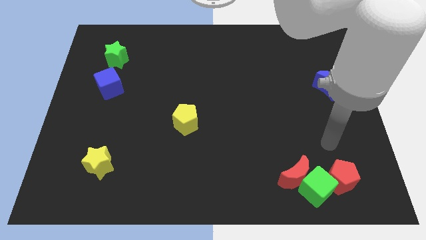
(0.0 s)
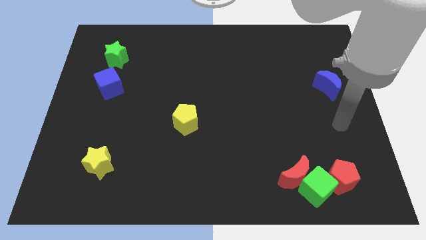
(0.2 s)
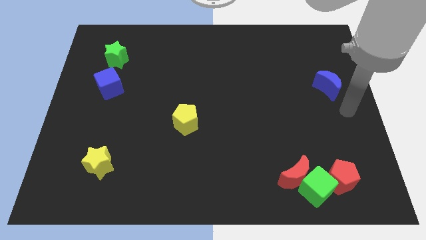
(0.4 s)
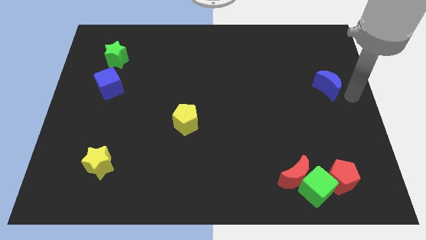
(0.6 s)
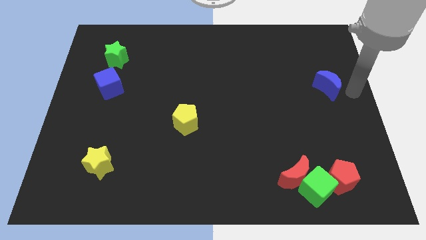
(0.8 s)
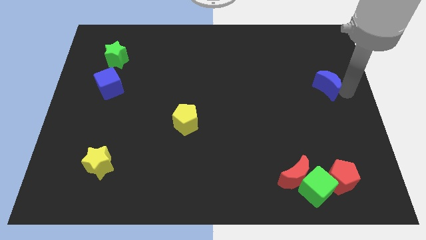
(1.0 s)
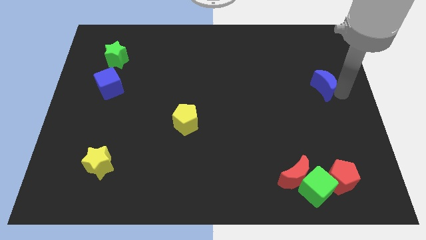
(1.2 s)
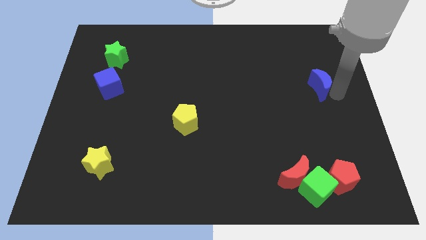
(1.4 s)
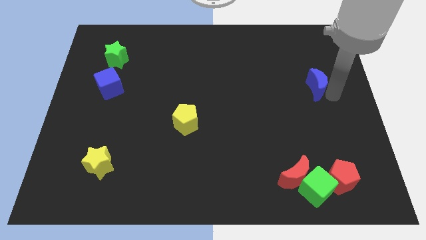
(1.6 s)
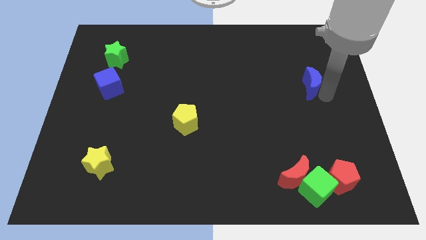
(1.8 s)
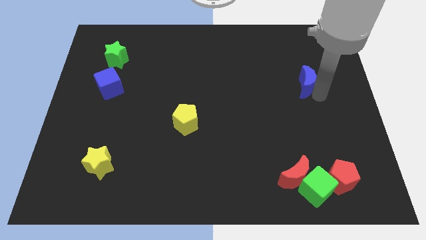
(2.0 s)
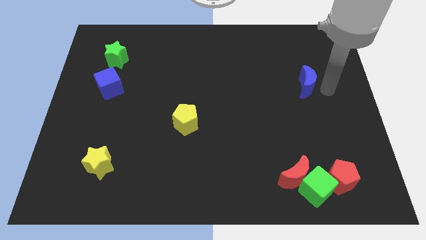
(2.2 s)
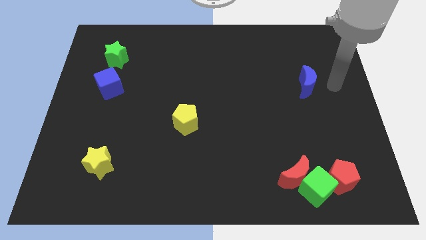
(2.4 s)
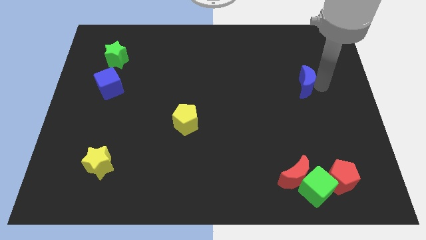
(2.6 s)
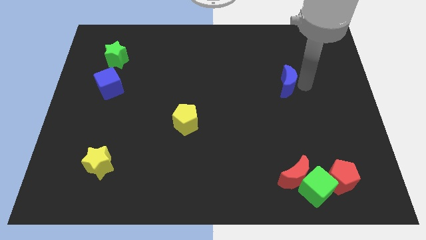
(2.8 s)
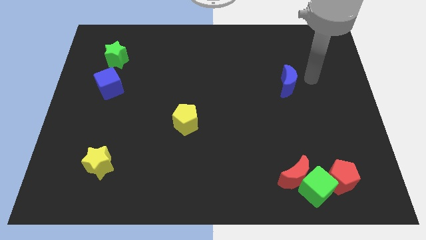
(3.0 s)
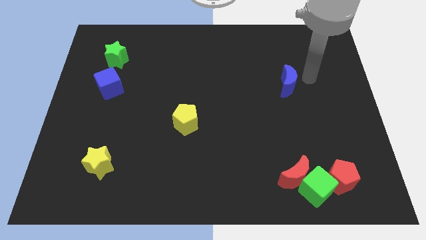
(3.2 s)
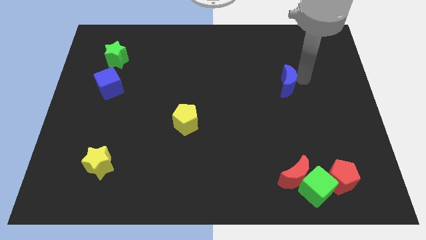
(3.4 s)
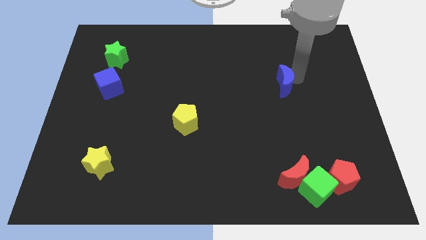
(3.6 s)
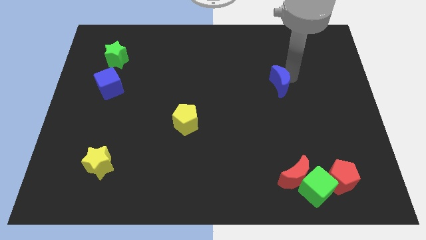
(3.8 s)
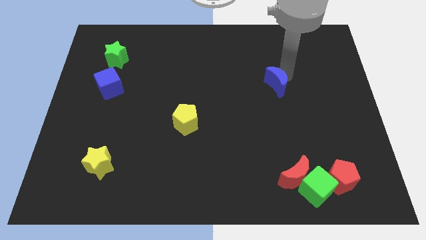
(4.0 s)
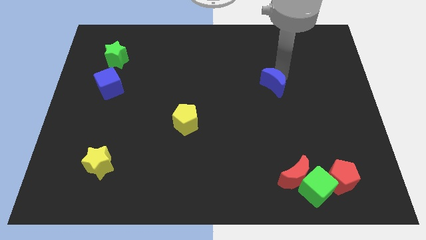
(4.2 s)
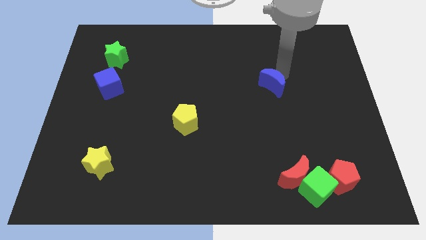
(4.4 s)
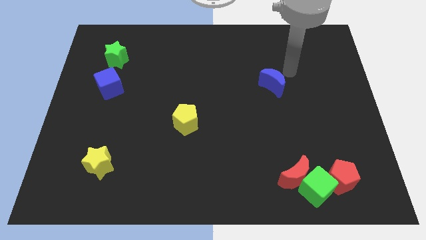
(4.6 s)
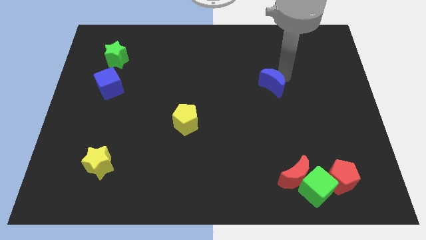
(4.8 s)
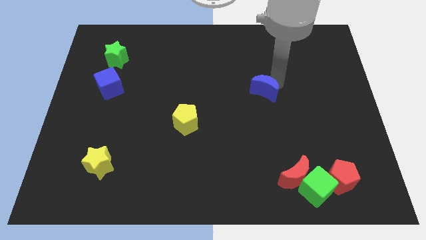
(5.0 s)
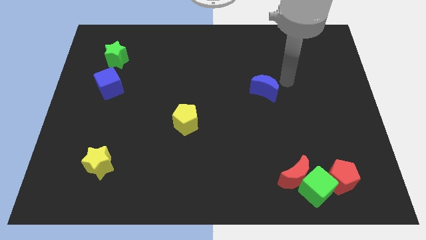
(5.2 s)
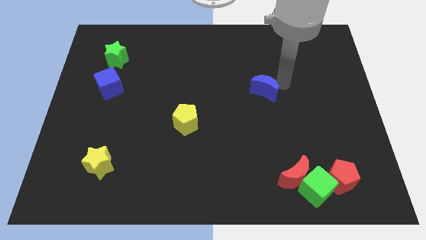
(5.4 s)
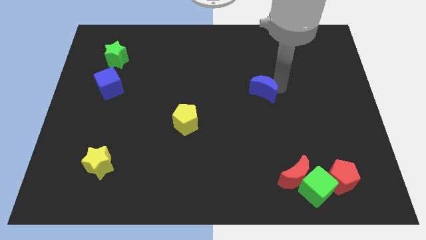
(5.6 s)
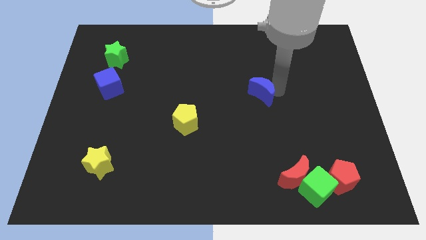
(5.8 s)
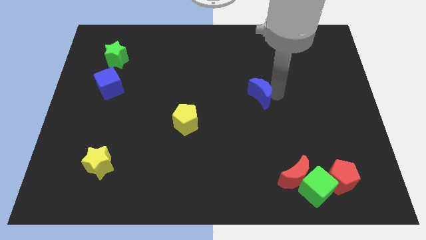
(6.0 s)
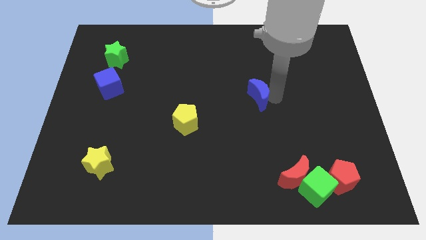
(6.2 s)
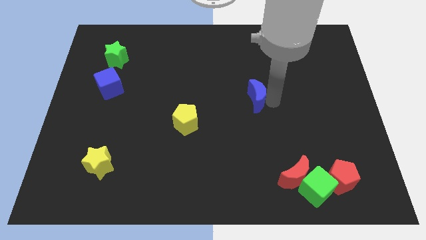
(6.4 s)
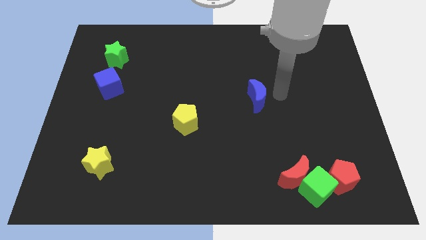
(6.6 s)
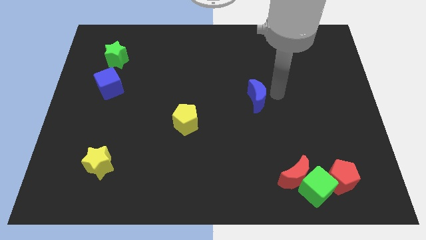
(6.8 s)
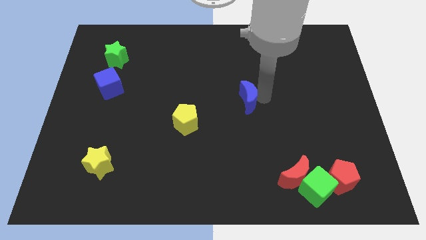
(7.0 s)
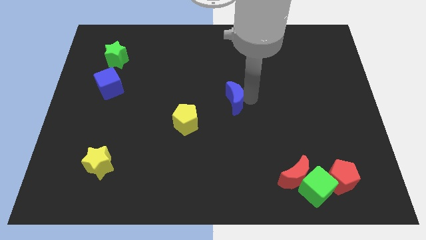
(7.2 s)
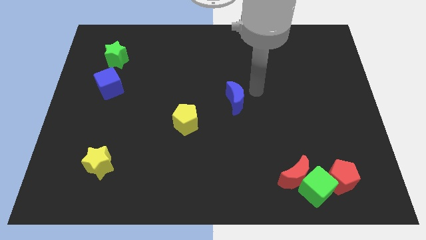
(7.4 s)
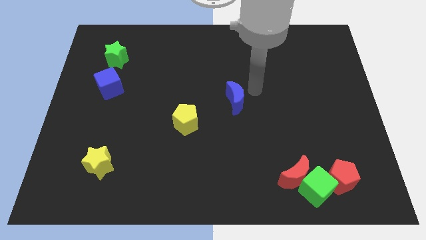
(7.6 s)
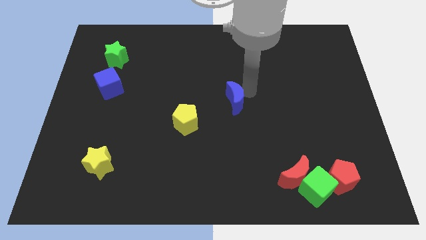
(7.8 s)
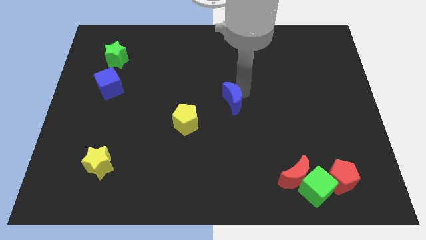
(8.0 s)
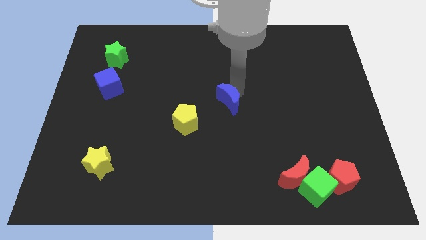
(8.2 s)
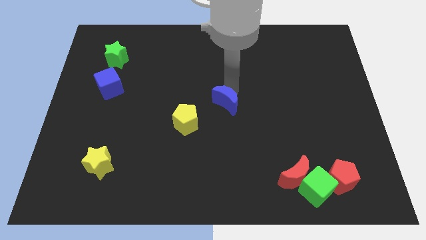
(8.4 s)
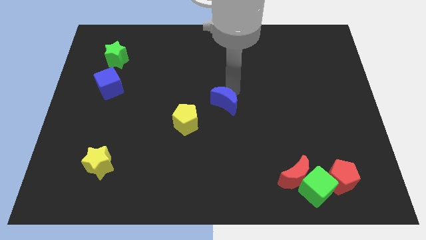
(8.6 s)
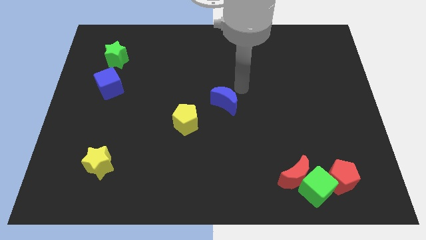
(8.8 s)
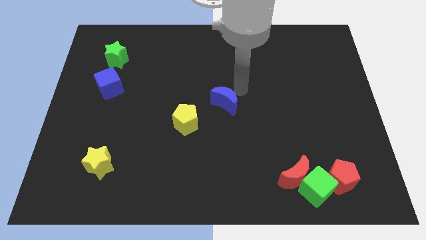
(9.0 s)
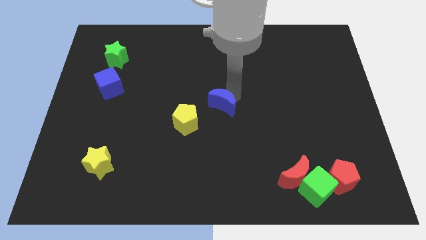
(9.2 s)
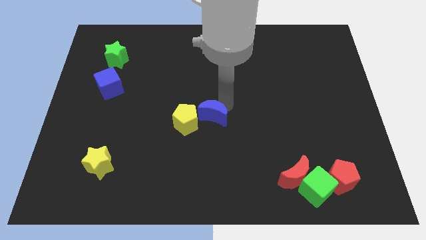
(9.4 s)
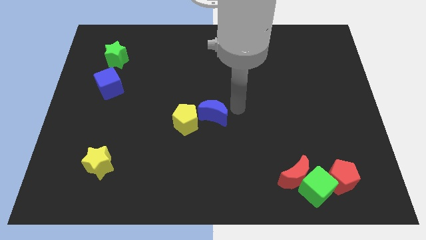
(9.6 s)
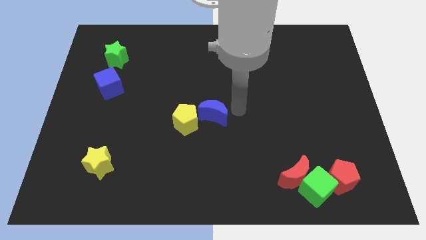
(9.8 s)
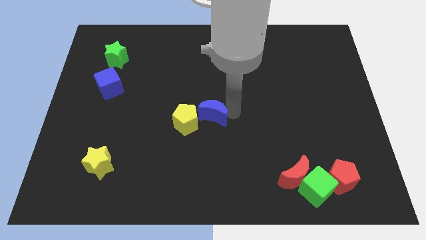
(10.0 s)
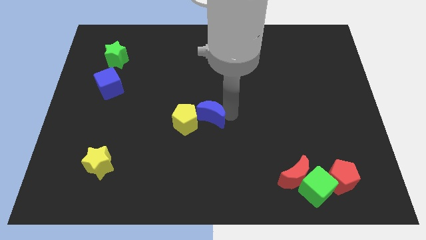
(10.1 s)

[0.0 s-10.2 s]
move the blue moon to the yellow pentagon

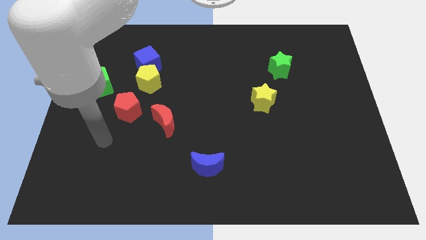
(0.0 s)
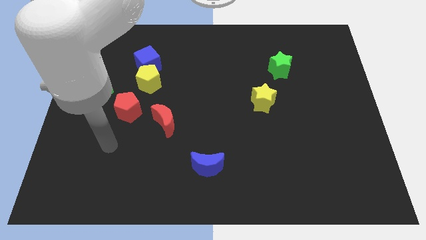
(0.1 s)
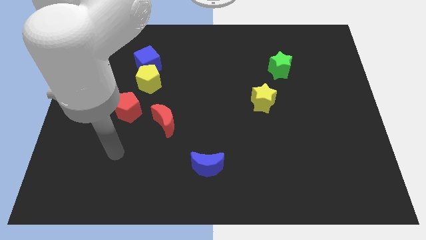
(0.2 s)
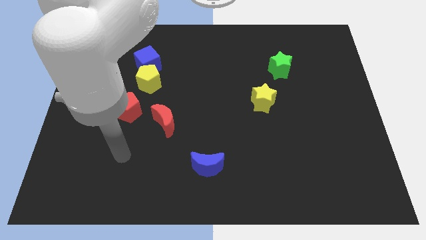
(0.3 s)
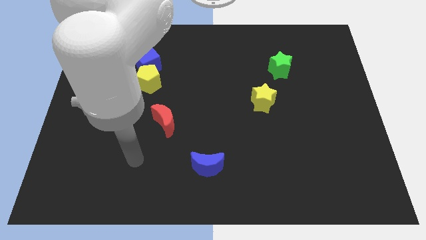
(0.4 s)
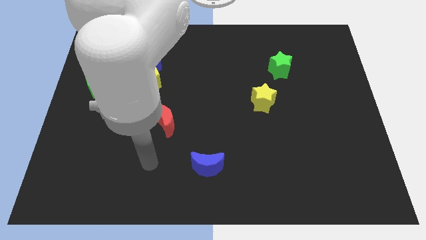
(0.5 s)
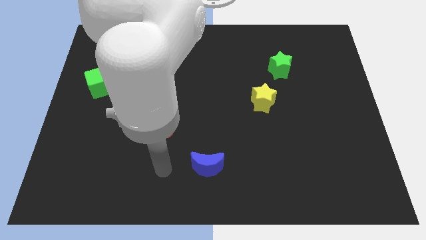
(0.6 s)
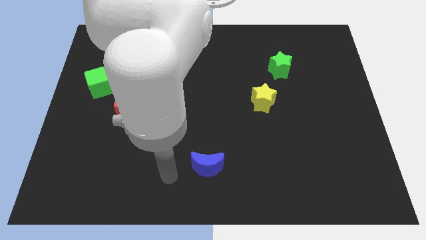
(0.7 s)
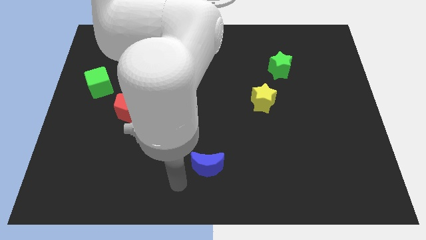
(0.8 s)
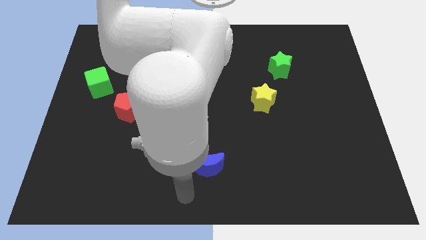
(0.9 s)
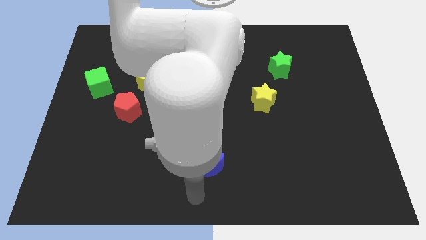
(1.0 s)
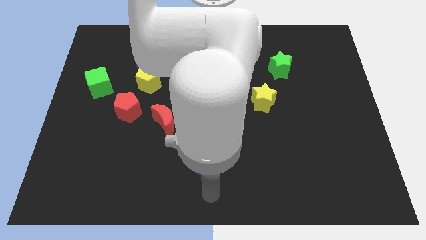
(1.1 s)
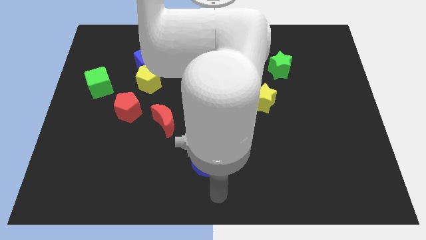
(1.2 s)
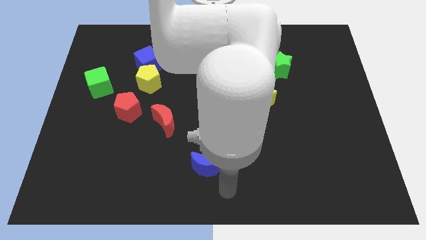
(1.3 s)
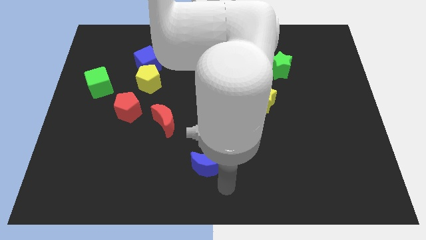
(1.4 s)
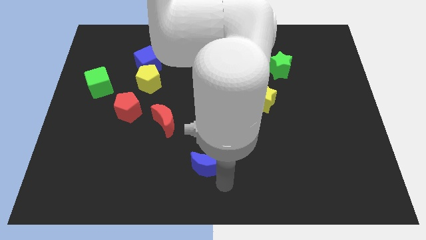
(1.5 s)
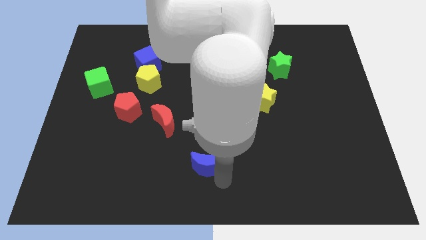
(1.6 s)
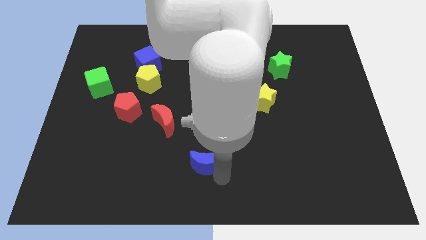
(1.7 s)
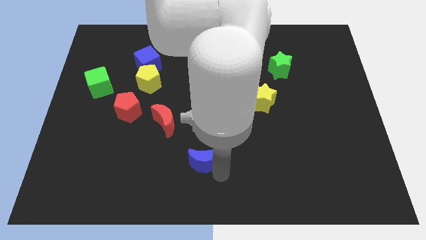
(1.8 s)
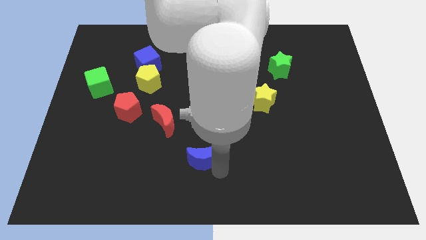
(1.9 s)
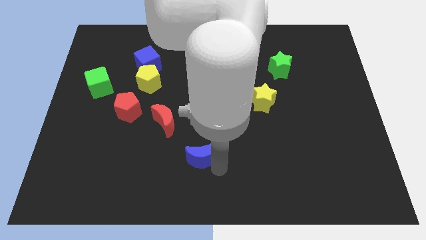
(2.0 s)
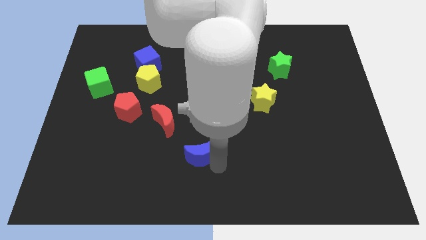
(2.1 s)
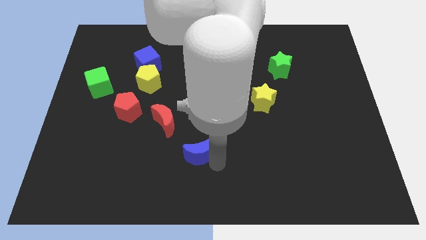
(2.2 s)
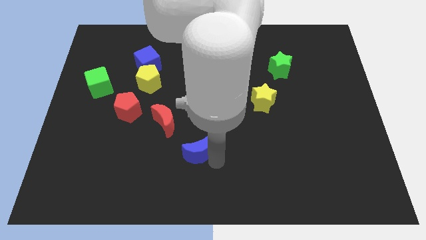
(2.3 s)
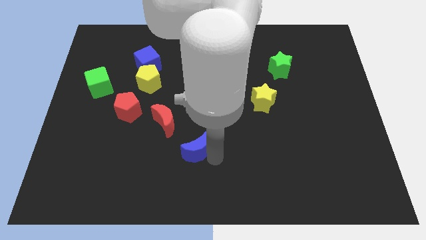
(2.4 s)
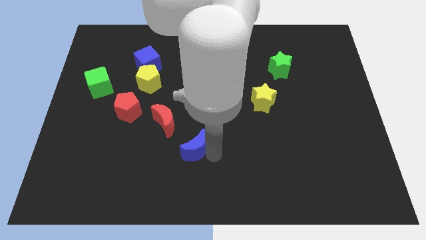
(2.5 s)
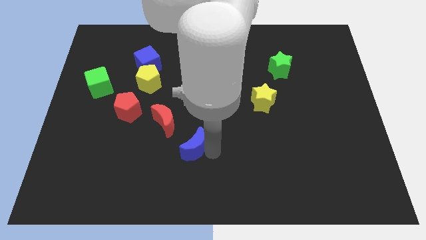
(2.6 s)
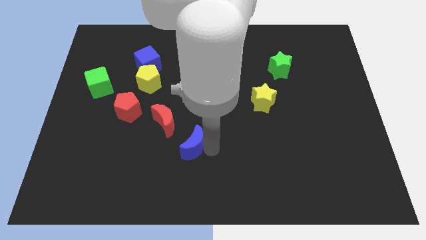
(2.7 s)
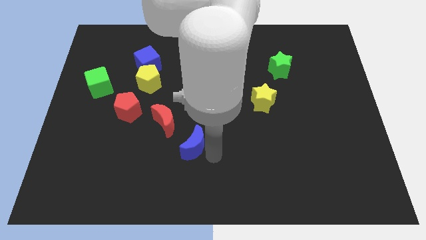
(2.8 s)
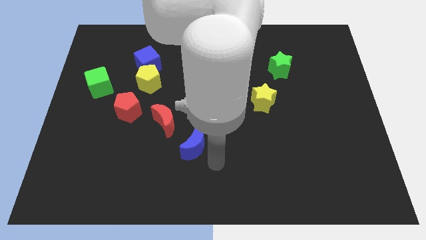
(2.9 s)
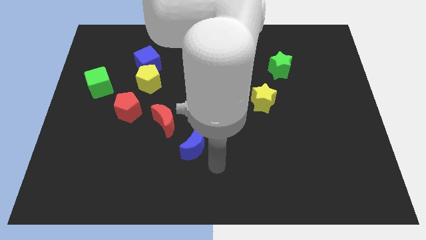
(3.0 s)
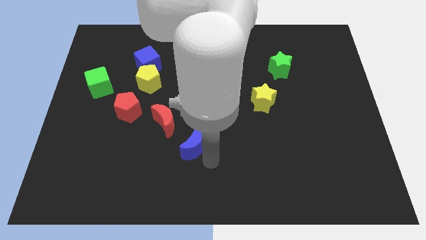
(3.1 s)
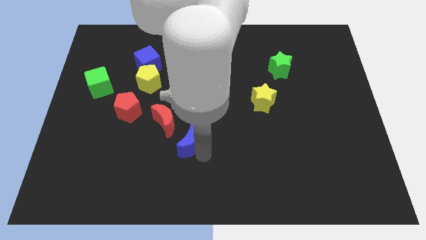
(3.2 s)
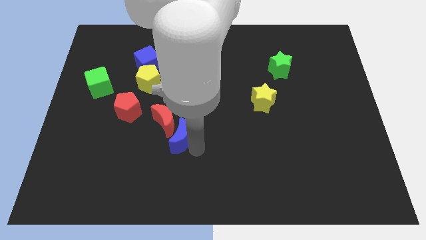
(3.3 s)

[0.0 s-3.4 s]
push the blue moon towards the red moon
